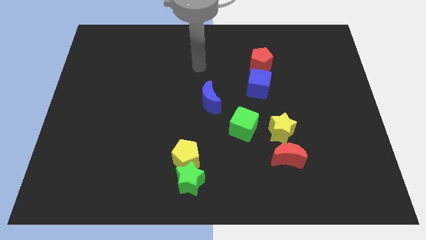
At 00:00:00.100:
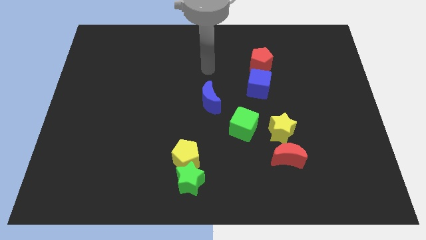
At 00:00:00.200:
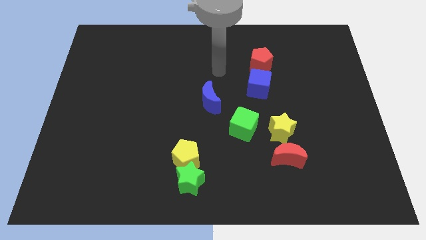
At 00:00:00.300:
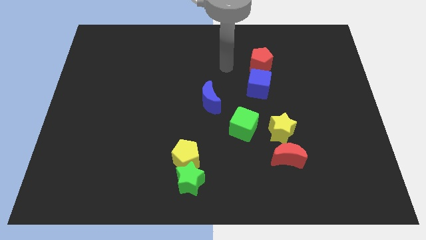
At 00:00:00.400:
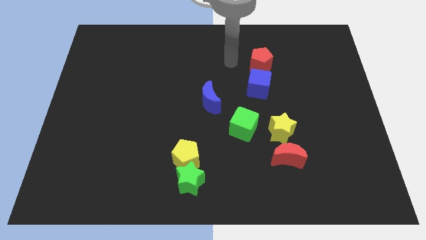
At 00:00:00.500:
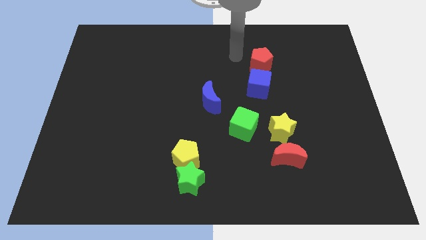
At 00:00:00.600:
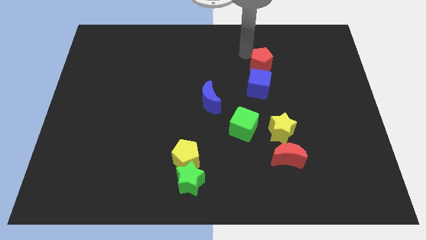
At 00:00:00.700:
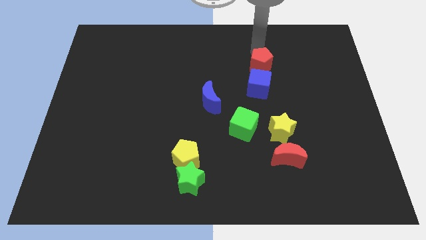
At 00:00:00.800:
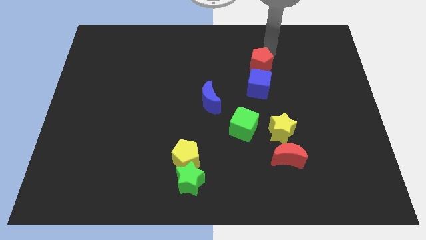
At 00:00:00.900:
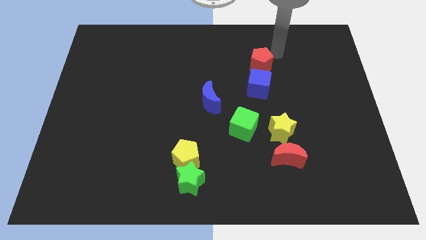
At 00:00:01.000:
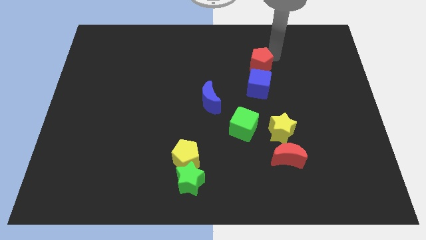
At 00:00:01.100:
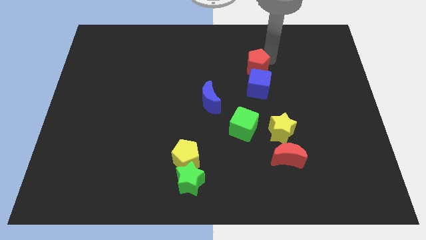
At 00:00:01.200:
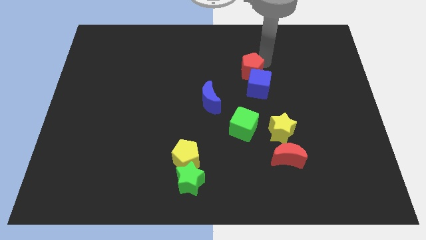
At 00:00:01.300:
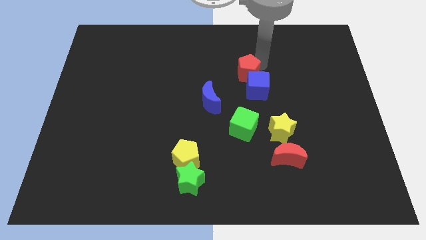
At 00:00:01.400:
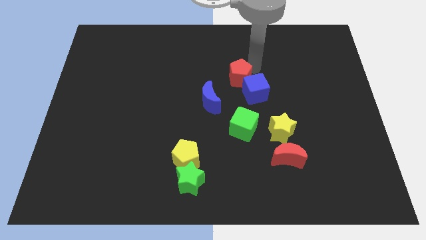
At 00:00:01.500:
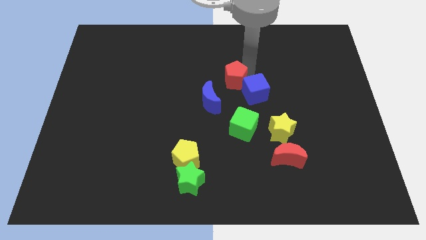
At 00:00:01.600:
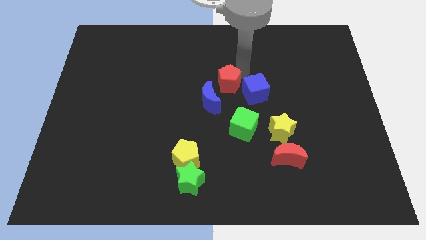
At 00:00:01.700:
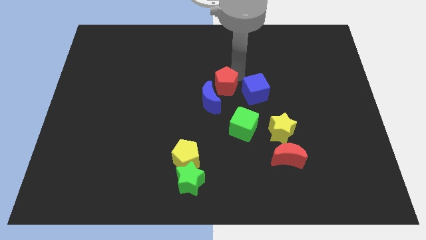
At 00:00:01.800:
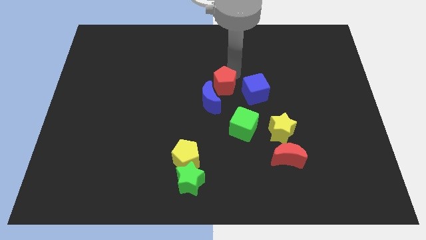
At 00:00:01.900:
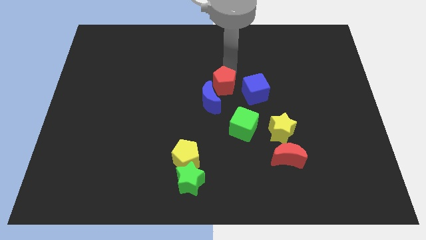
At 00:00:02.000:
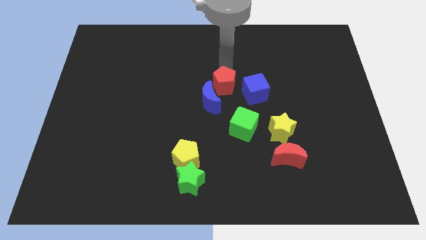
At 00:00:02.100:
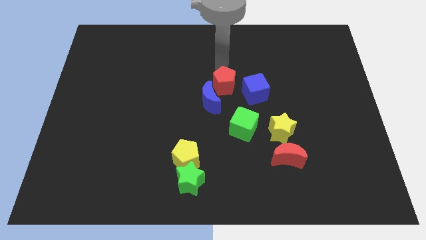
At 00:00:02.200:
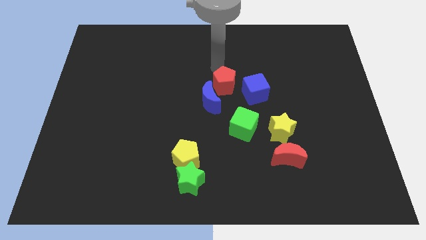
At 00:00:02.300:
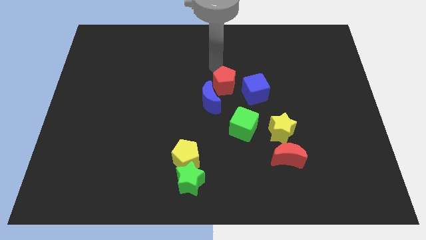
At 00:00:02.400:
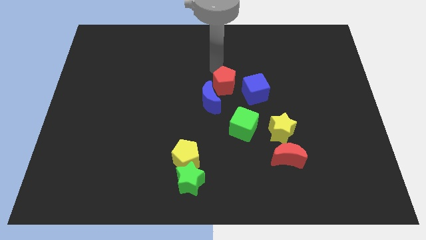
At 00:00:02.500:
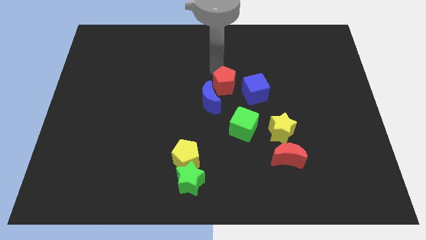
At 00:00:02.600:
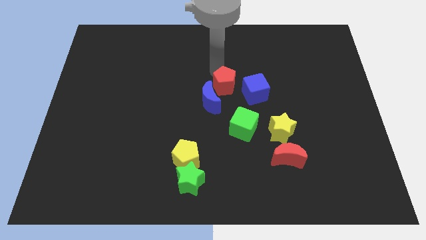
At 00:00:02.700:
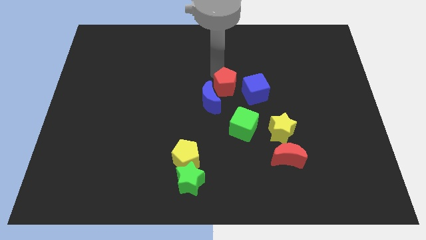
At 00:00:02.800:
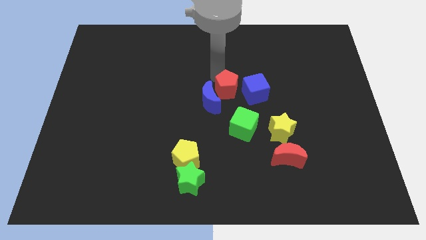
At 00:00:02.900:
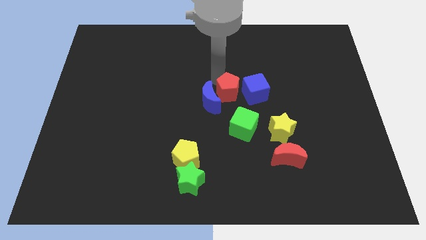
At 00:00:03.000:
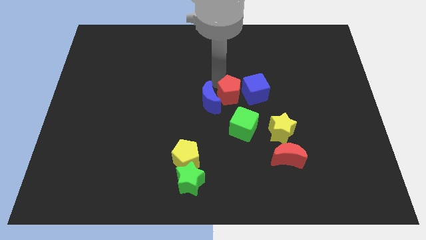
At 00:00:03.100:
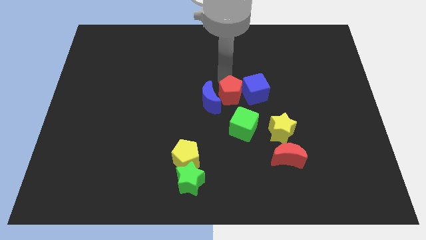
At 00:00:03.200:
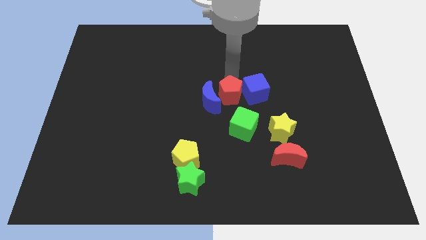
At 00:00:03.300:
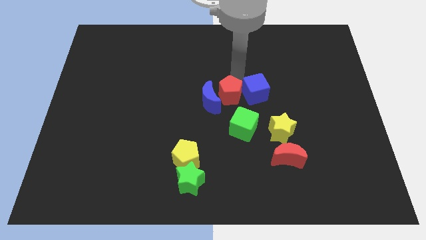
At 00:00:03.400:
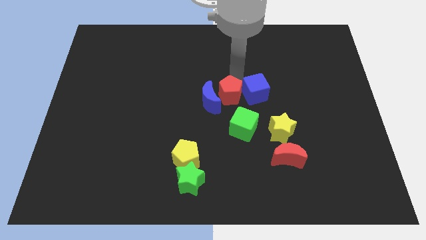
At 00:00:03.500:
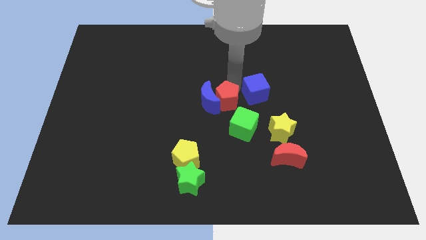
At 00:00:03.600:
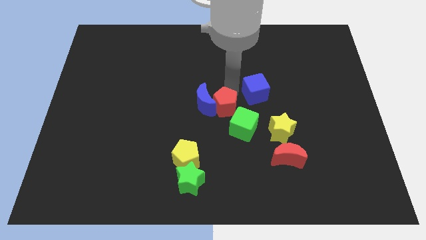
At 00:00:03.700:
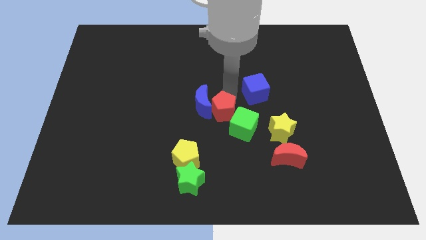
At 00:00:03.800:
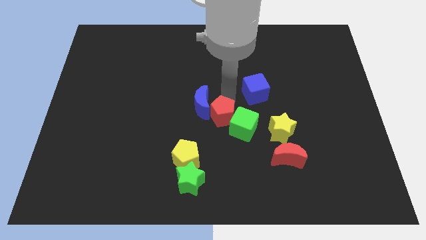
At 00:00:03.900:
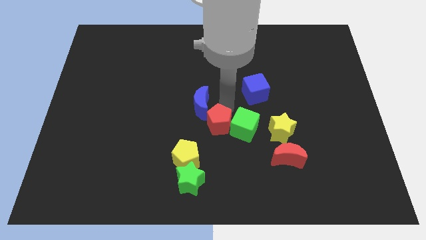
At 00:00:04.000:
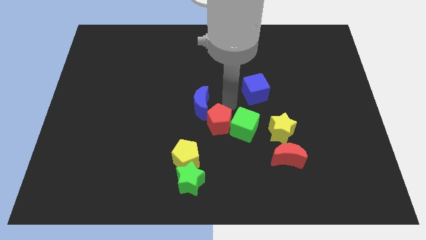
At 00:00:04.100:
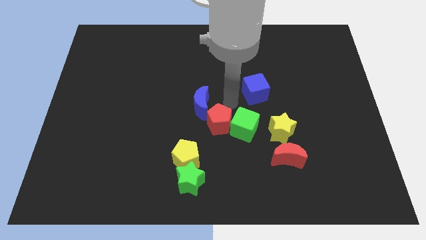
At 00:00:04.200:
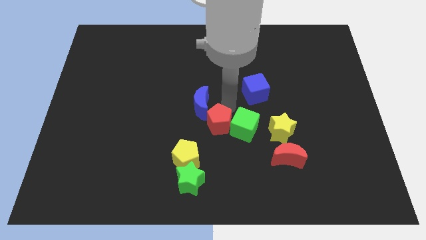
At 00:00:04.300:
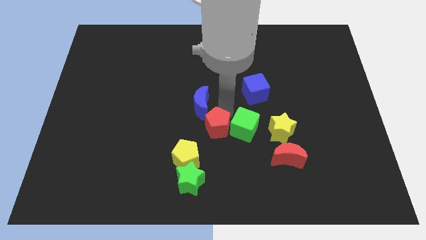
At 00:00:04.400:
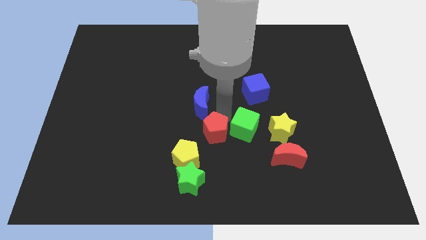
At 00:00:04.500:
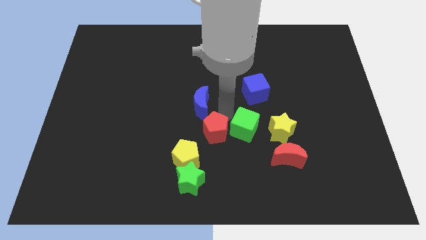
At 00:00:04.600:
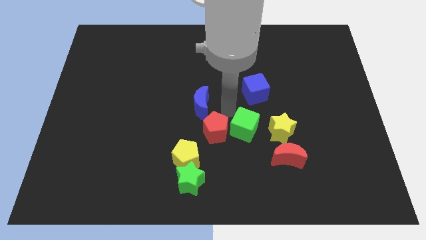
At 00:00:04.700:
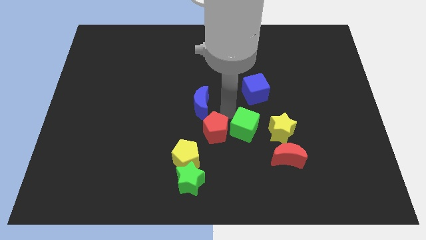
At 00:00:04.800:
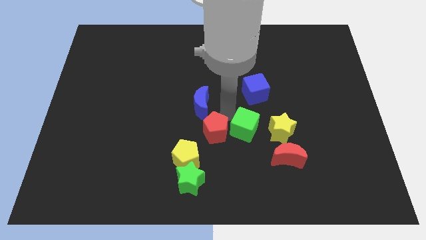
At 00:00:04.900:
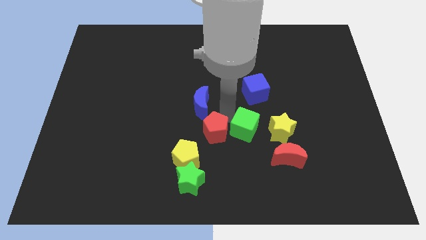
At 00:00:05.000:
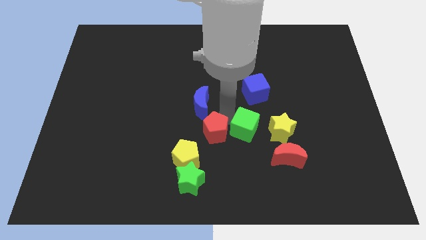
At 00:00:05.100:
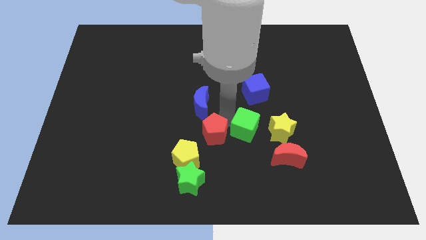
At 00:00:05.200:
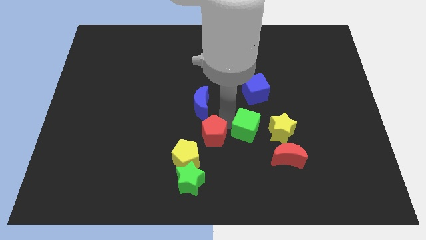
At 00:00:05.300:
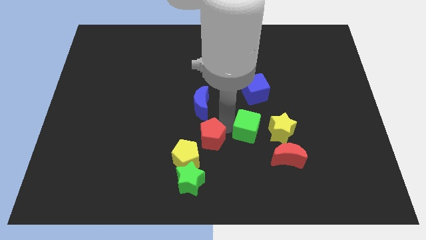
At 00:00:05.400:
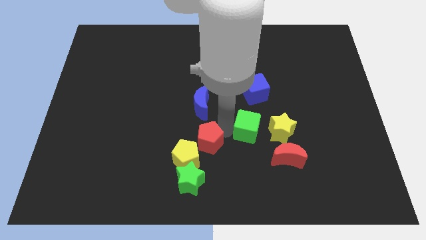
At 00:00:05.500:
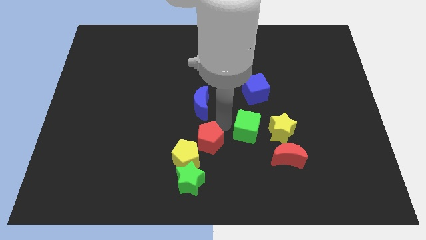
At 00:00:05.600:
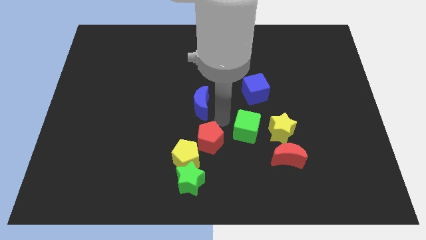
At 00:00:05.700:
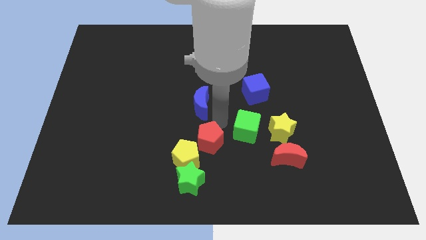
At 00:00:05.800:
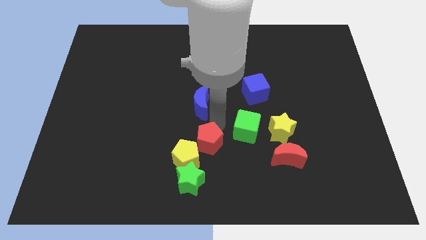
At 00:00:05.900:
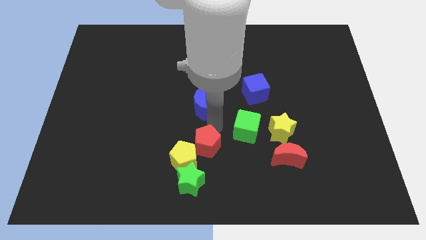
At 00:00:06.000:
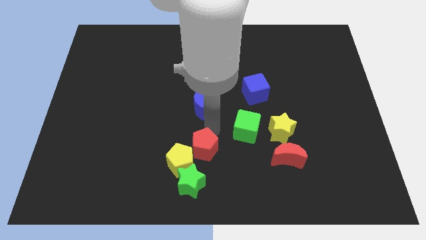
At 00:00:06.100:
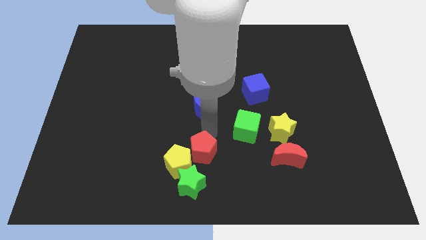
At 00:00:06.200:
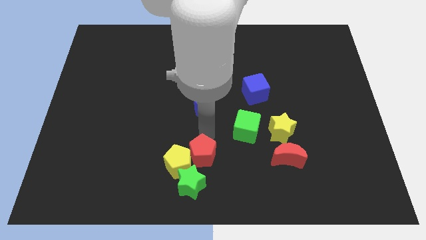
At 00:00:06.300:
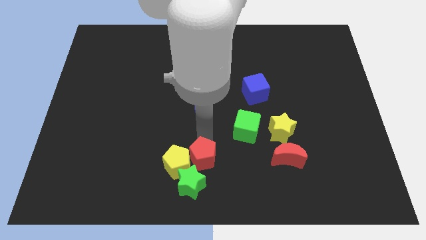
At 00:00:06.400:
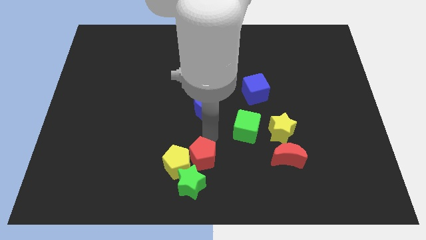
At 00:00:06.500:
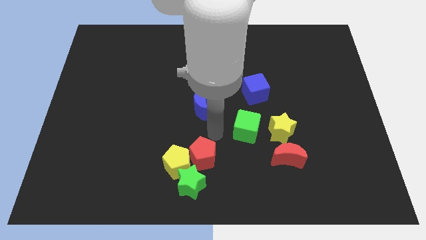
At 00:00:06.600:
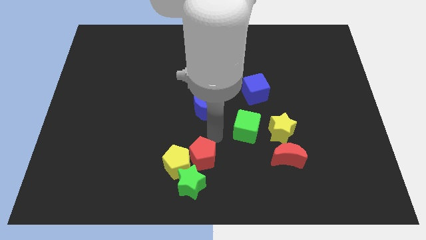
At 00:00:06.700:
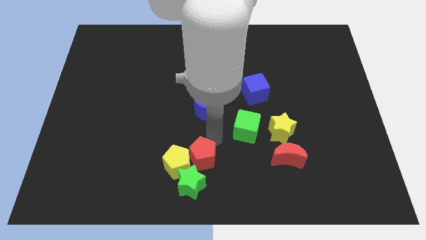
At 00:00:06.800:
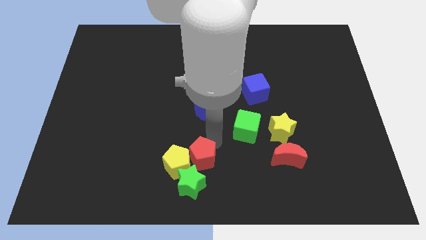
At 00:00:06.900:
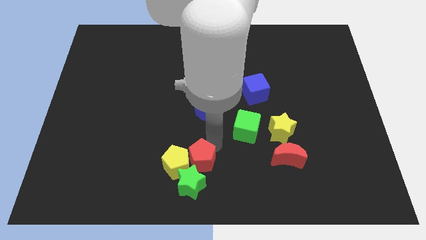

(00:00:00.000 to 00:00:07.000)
put the red pentagon towards the green star
